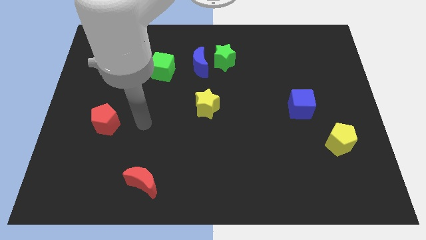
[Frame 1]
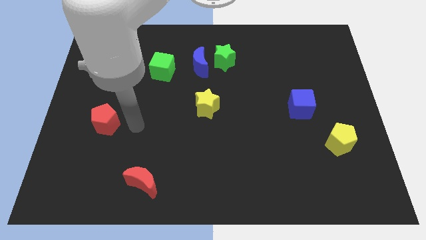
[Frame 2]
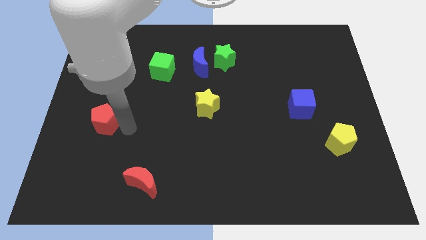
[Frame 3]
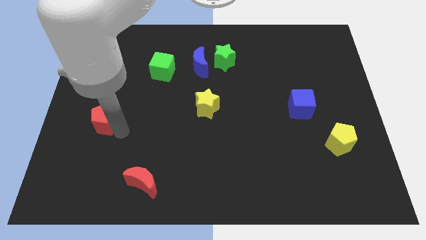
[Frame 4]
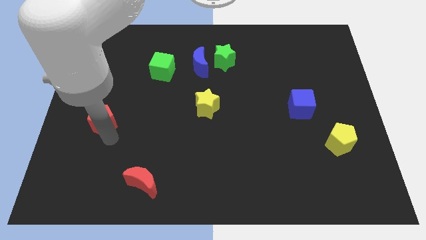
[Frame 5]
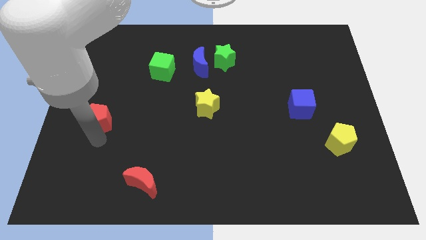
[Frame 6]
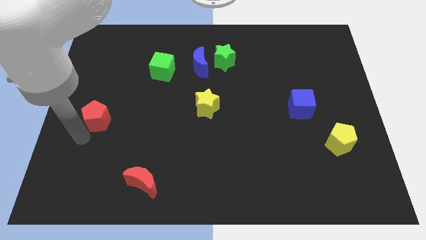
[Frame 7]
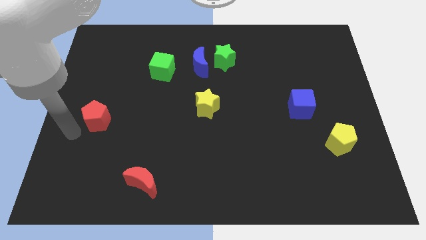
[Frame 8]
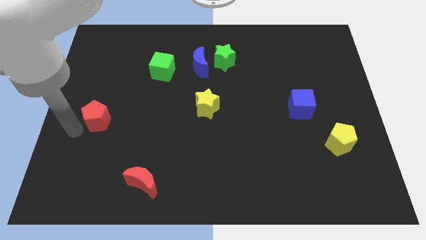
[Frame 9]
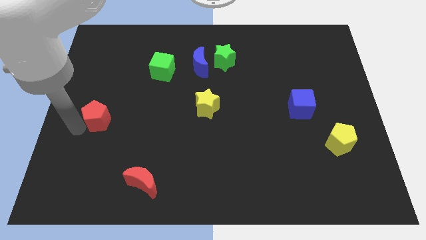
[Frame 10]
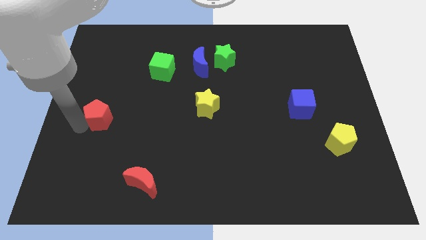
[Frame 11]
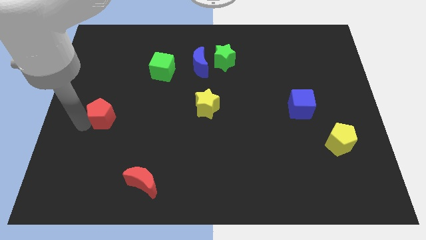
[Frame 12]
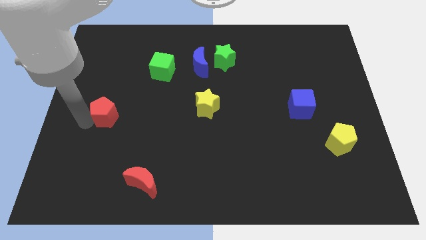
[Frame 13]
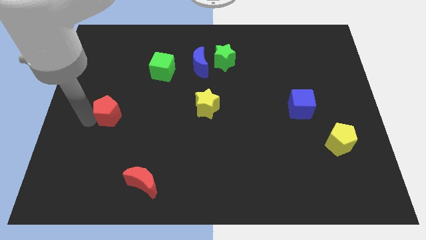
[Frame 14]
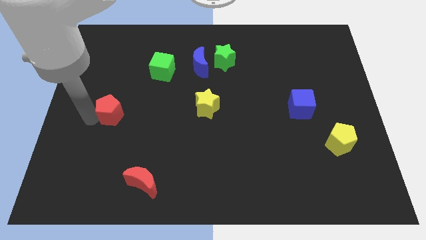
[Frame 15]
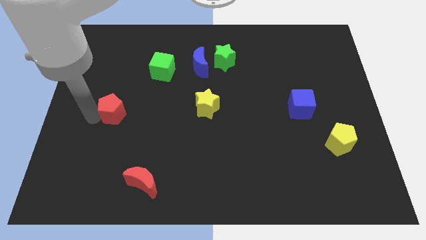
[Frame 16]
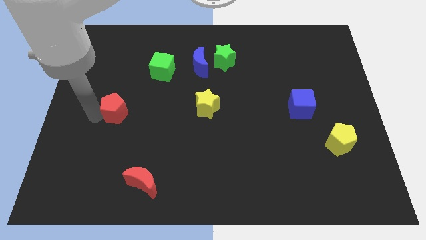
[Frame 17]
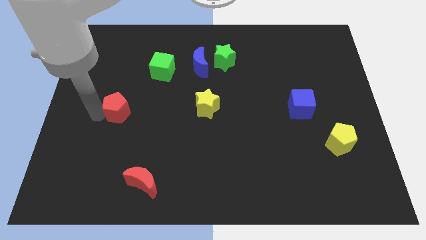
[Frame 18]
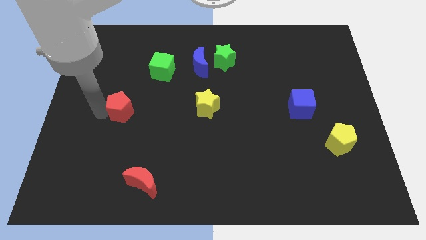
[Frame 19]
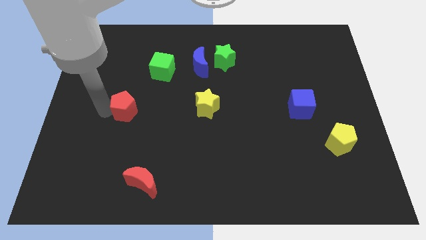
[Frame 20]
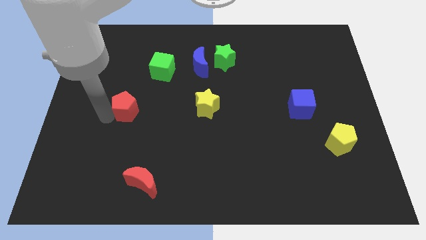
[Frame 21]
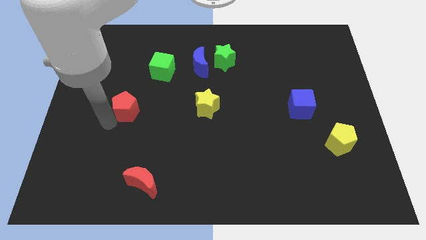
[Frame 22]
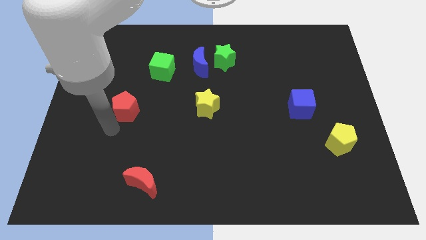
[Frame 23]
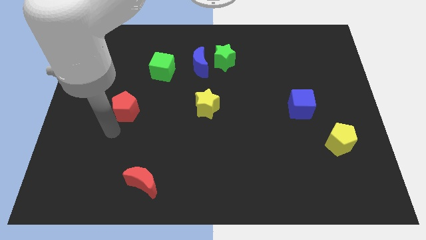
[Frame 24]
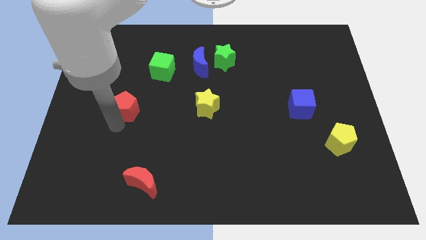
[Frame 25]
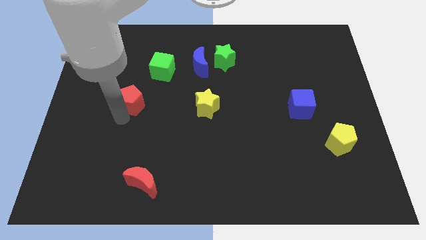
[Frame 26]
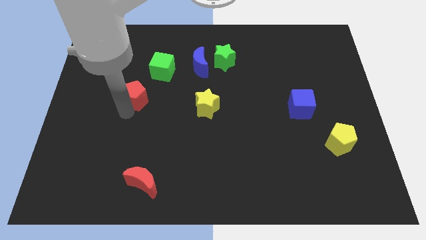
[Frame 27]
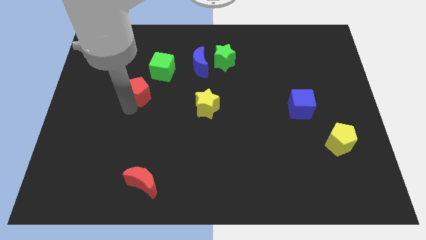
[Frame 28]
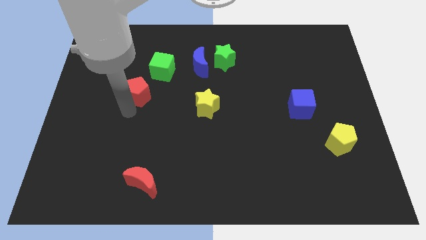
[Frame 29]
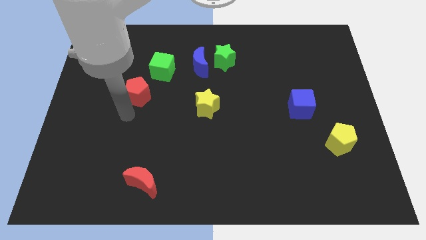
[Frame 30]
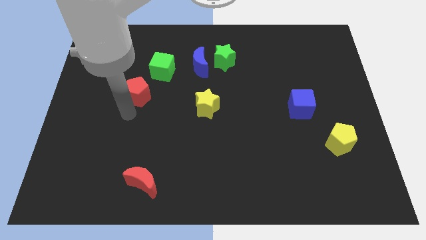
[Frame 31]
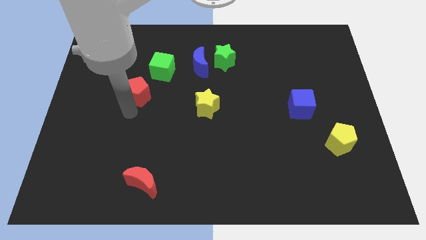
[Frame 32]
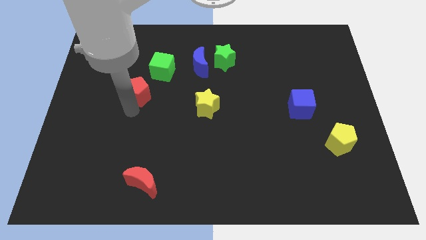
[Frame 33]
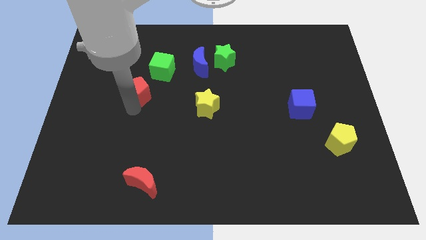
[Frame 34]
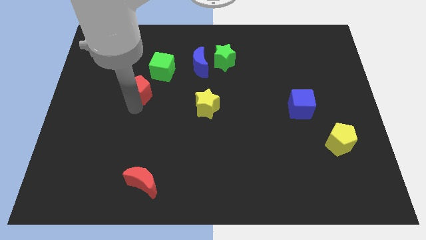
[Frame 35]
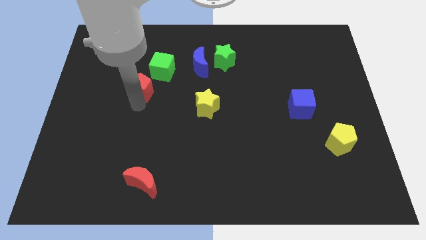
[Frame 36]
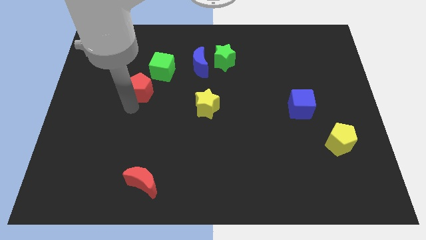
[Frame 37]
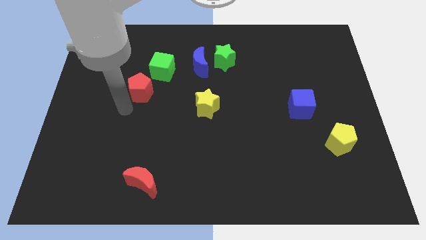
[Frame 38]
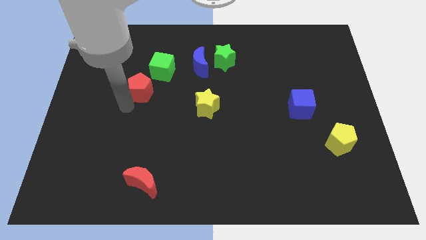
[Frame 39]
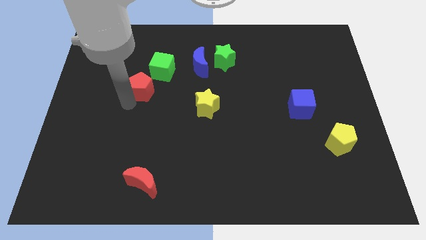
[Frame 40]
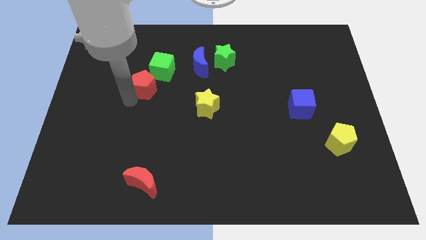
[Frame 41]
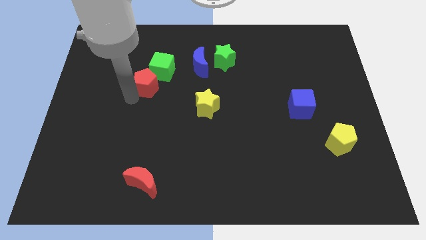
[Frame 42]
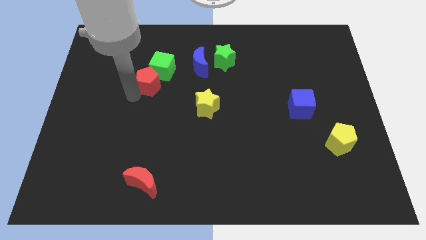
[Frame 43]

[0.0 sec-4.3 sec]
slide the red pentagon close to the green cube

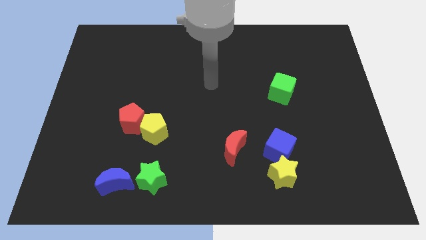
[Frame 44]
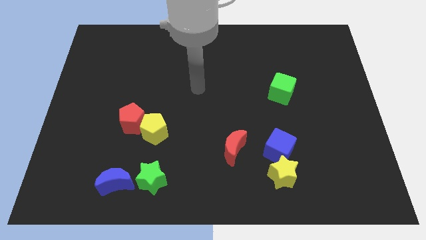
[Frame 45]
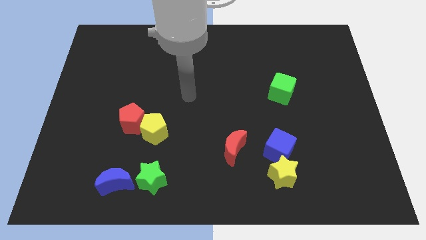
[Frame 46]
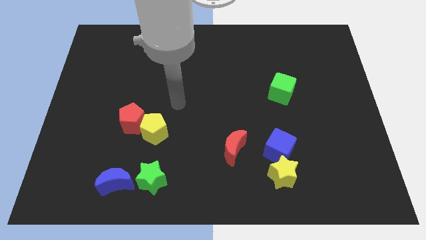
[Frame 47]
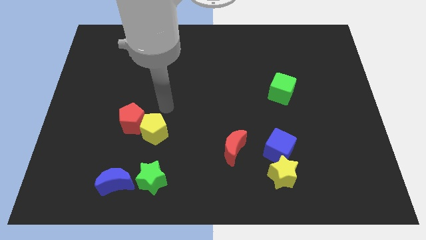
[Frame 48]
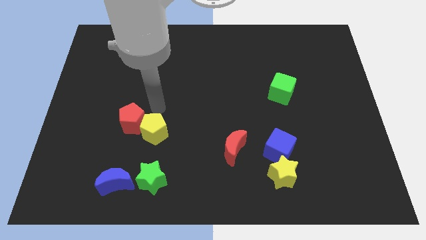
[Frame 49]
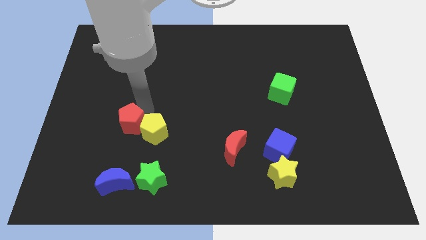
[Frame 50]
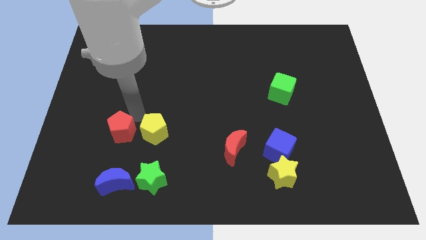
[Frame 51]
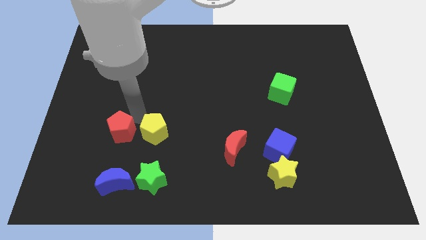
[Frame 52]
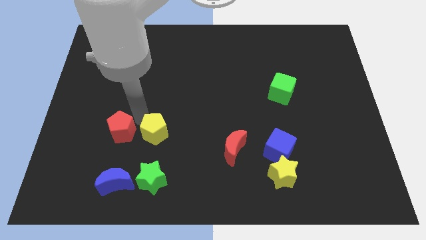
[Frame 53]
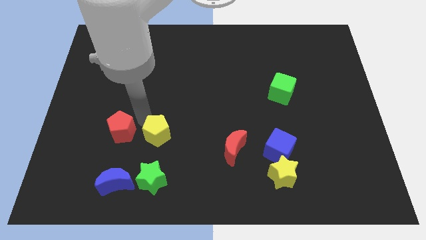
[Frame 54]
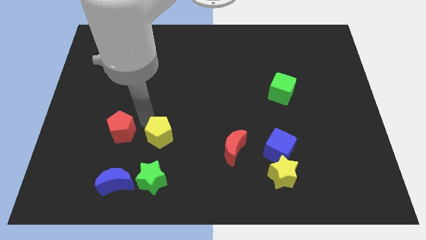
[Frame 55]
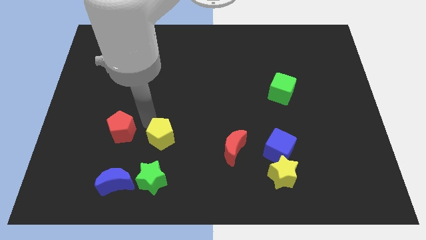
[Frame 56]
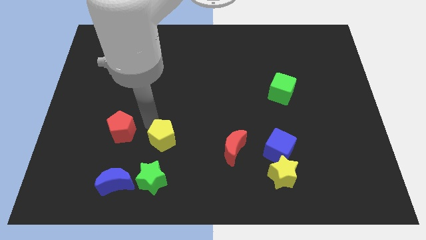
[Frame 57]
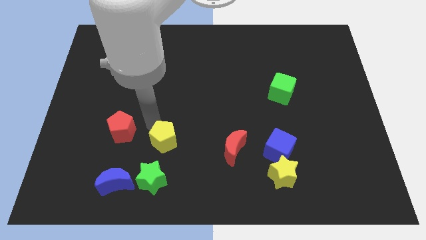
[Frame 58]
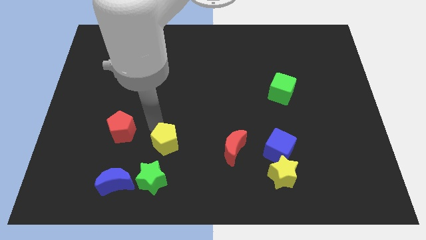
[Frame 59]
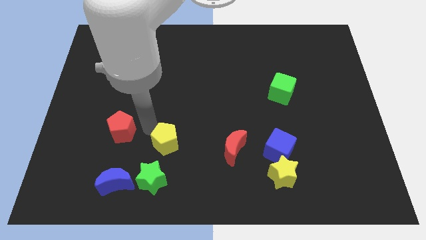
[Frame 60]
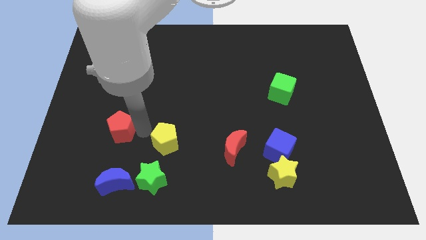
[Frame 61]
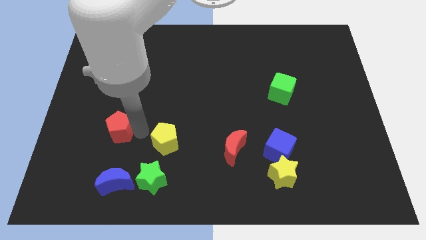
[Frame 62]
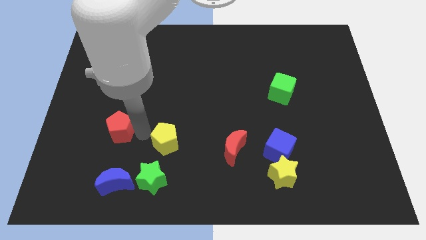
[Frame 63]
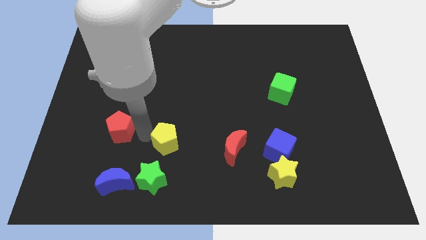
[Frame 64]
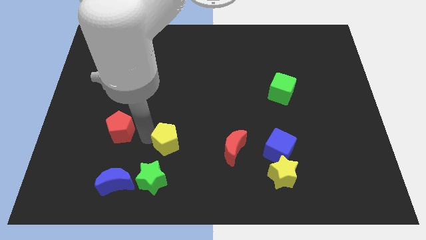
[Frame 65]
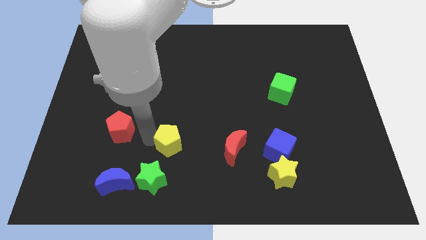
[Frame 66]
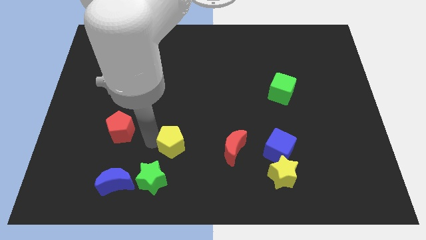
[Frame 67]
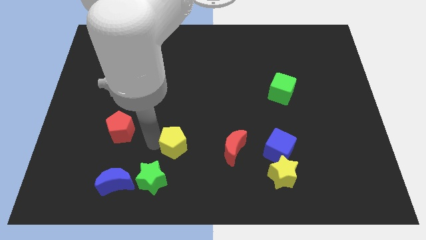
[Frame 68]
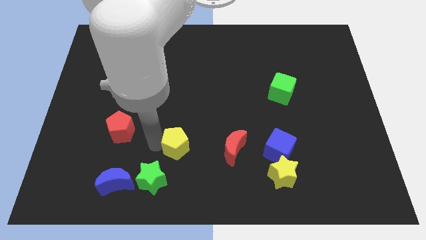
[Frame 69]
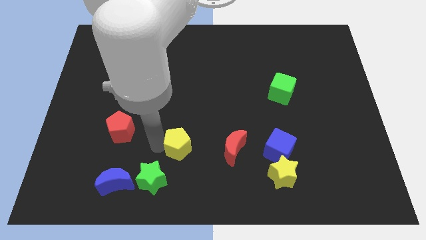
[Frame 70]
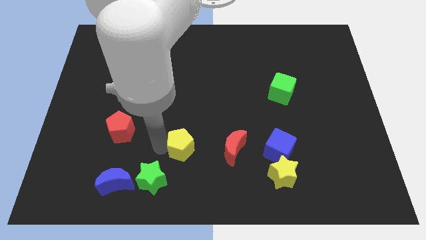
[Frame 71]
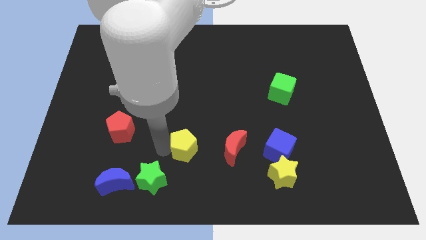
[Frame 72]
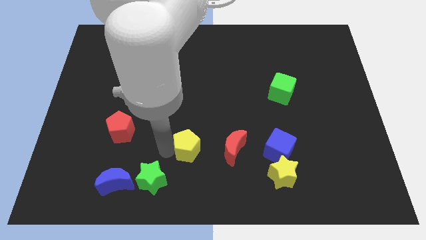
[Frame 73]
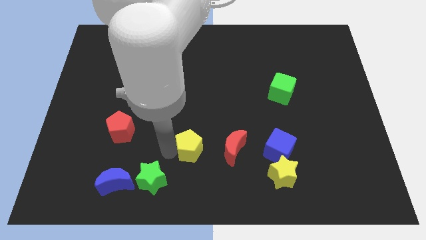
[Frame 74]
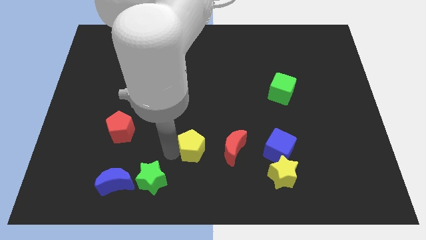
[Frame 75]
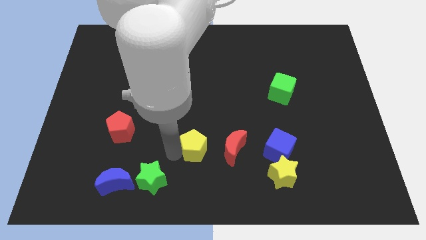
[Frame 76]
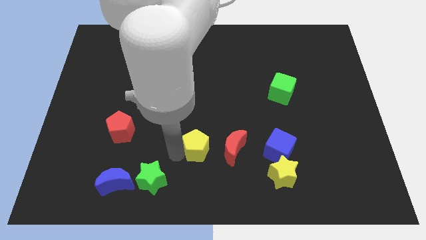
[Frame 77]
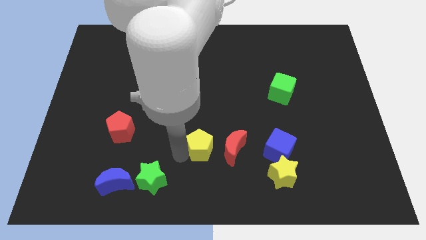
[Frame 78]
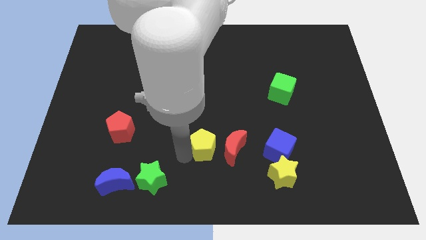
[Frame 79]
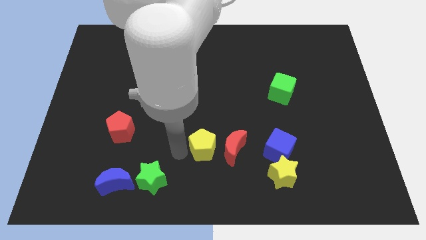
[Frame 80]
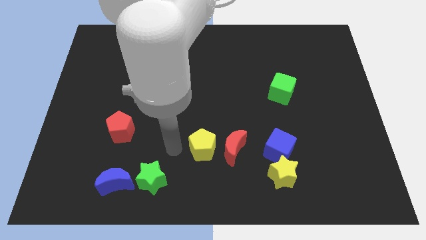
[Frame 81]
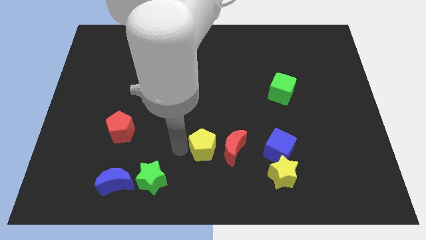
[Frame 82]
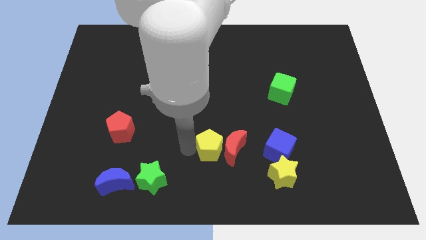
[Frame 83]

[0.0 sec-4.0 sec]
put the yellow pentagon to the red moon

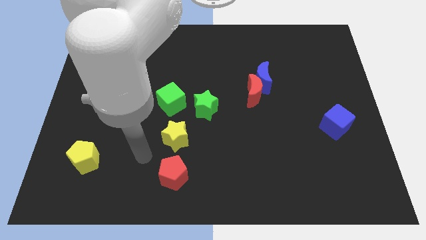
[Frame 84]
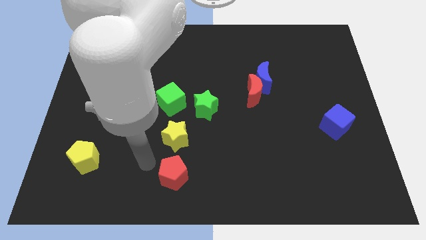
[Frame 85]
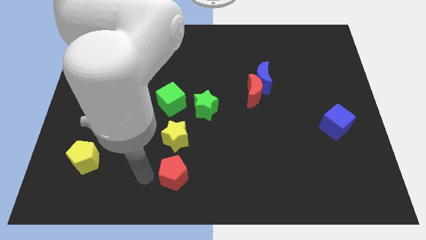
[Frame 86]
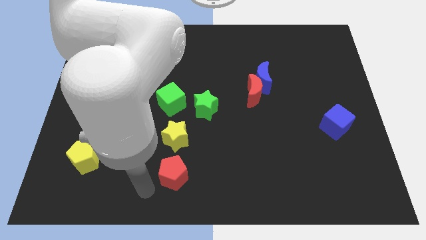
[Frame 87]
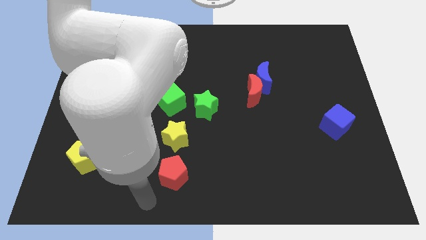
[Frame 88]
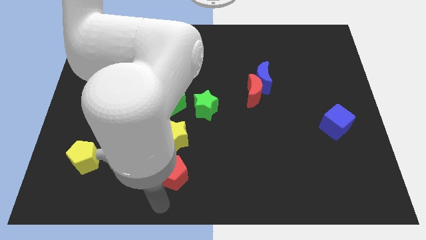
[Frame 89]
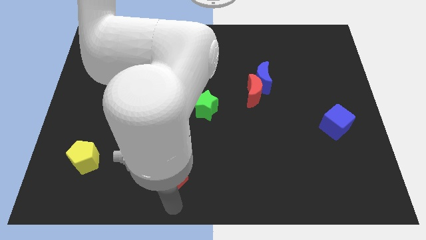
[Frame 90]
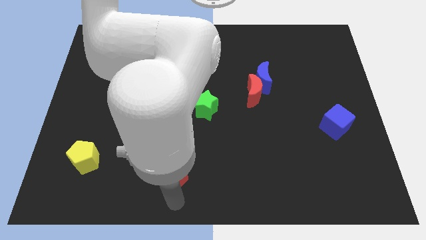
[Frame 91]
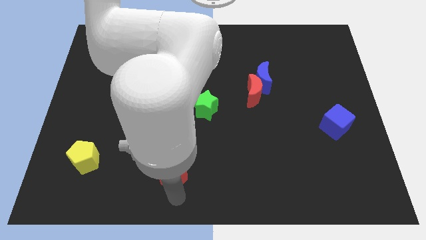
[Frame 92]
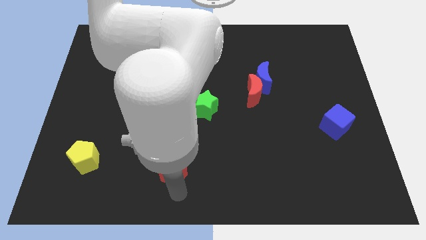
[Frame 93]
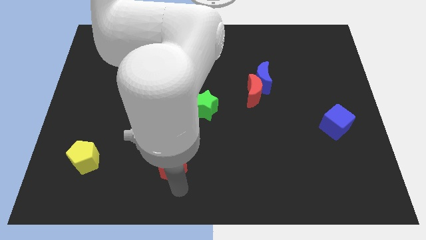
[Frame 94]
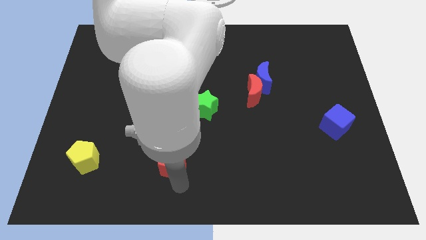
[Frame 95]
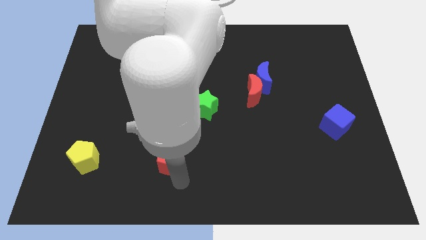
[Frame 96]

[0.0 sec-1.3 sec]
slide the red pentagon close to the yellow star
